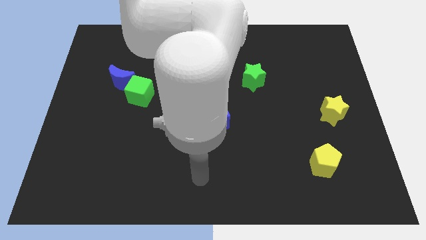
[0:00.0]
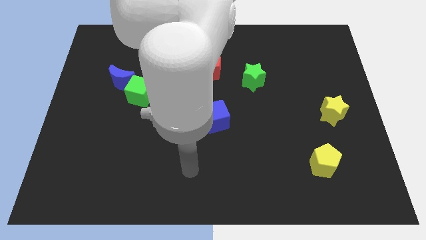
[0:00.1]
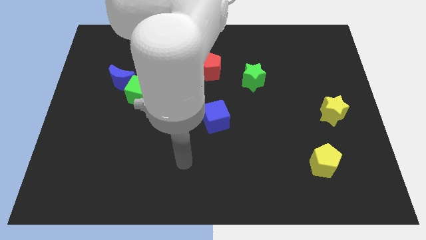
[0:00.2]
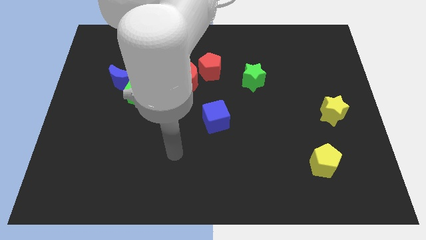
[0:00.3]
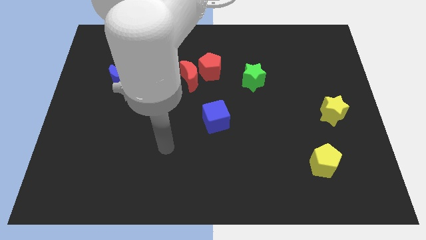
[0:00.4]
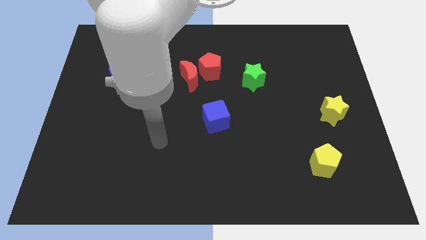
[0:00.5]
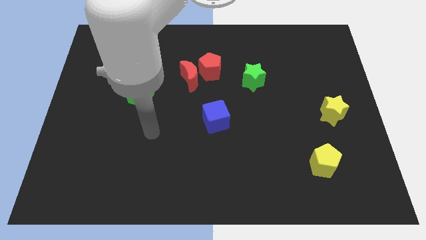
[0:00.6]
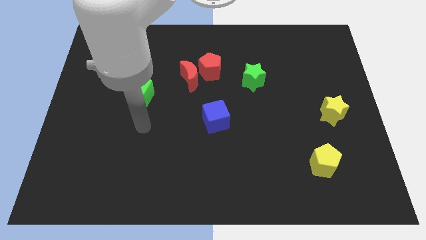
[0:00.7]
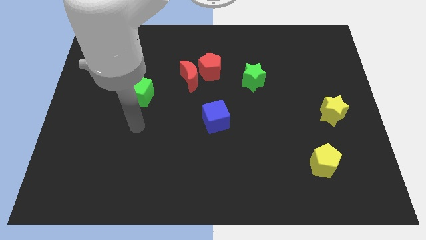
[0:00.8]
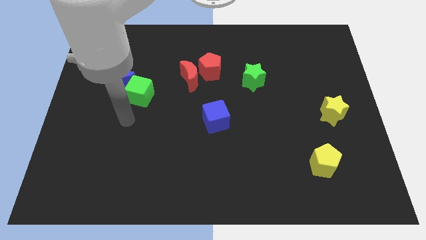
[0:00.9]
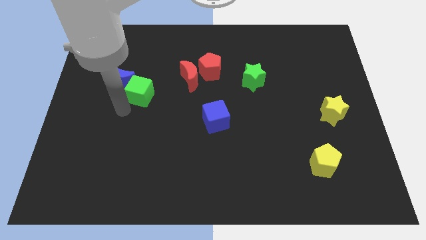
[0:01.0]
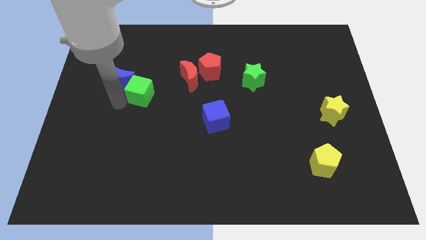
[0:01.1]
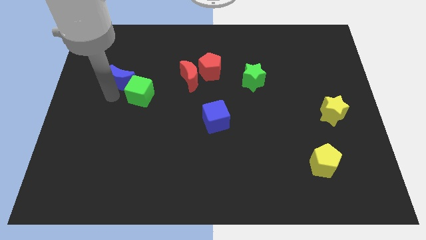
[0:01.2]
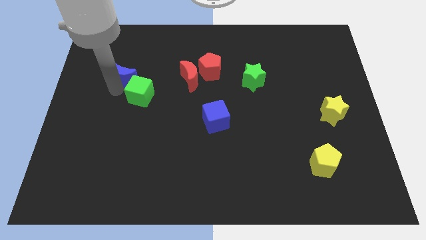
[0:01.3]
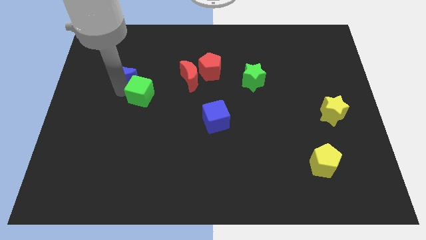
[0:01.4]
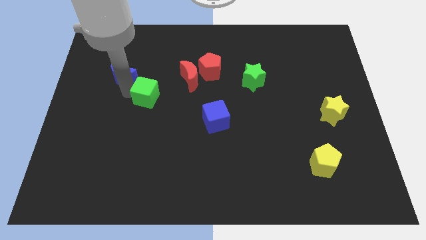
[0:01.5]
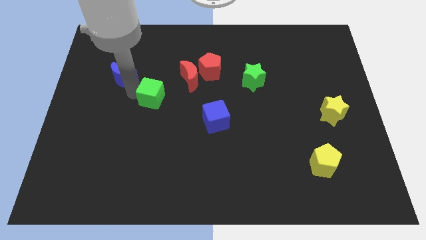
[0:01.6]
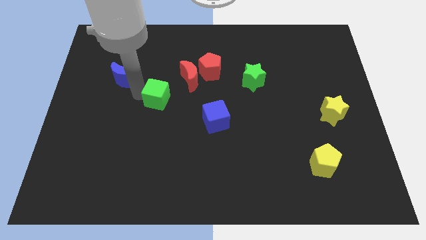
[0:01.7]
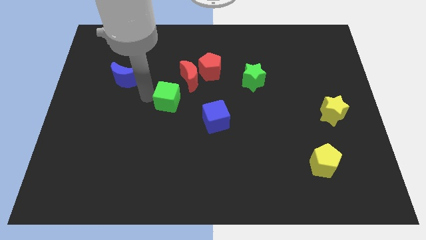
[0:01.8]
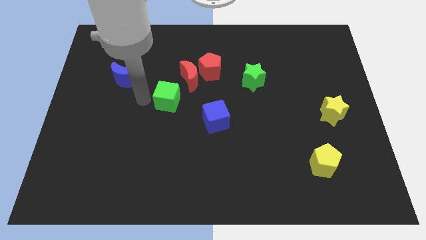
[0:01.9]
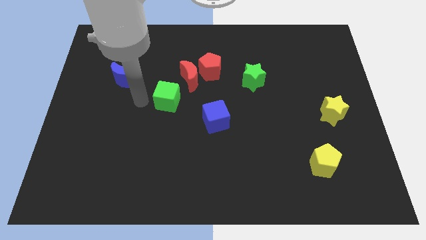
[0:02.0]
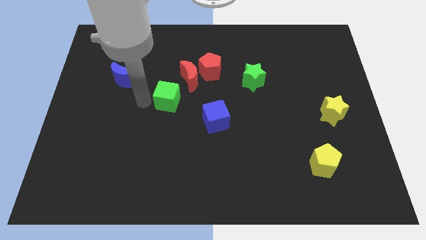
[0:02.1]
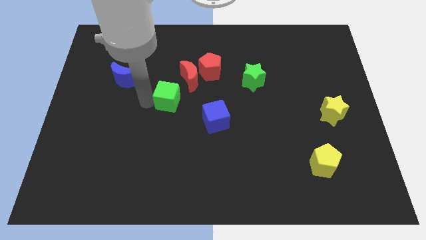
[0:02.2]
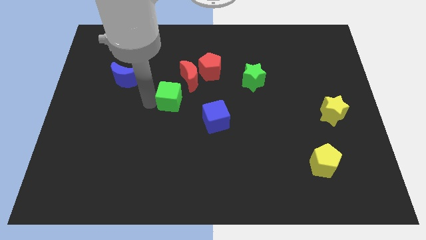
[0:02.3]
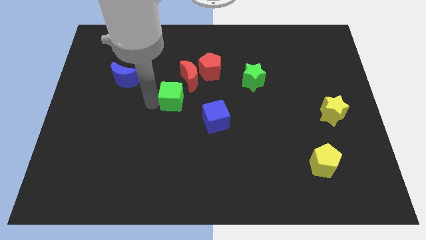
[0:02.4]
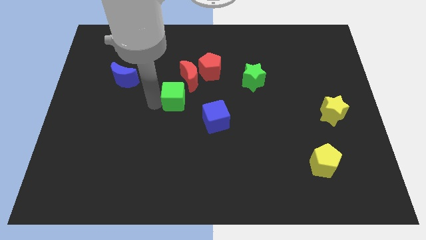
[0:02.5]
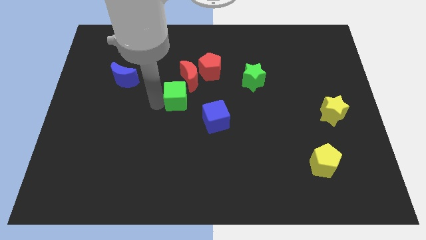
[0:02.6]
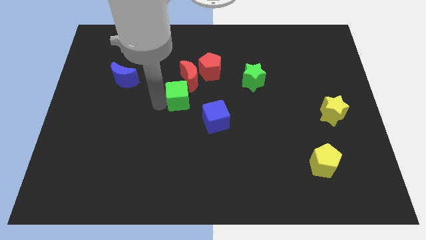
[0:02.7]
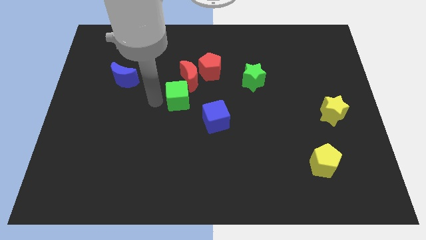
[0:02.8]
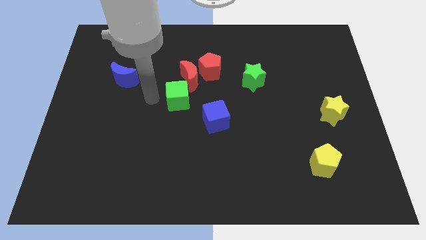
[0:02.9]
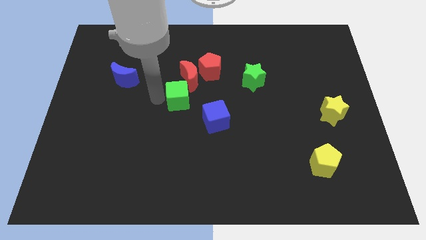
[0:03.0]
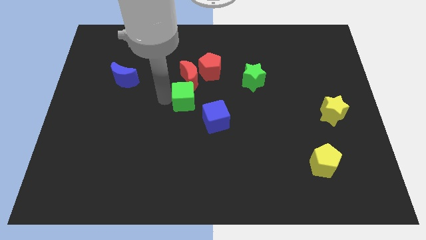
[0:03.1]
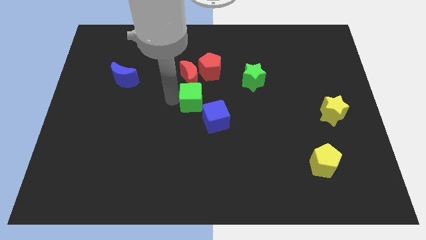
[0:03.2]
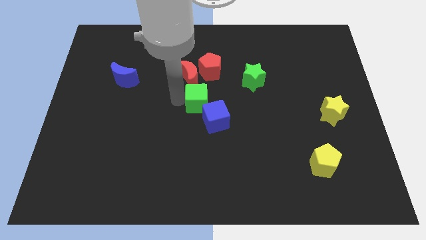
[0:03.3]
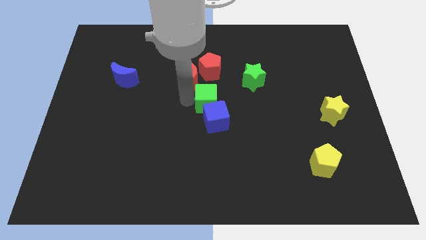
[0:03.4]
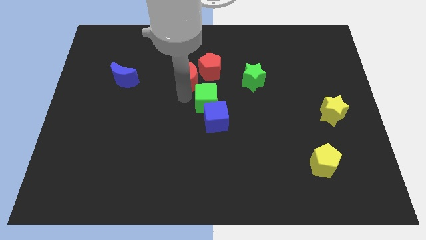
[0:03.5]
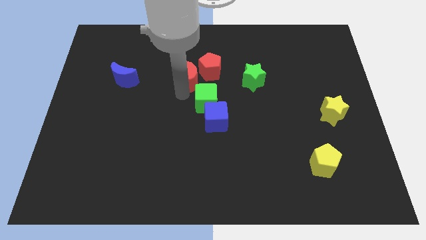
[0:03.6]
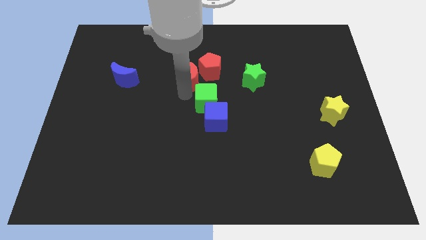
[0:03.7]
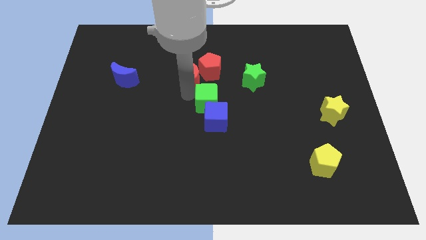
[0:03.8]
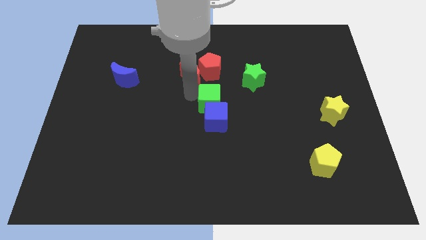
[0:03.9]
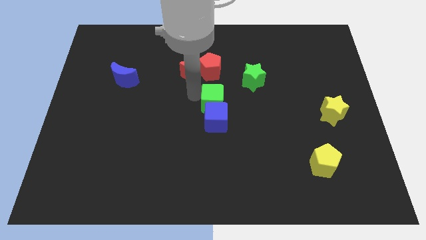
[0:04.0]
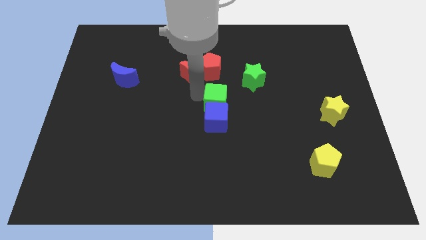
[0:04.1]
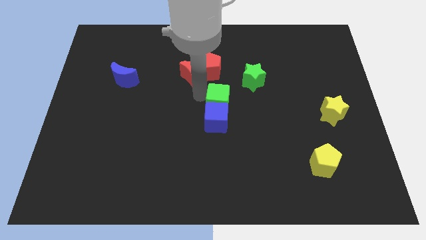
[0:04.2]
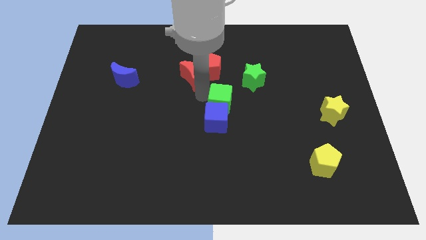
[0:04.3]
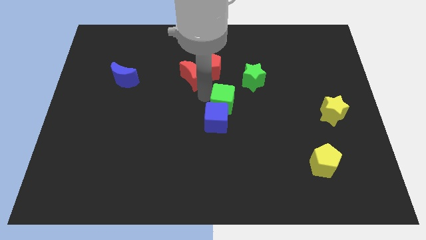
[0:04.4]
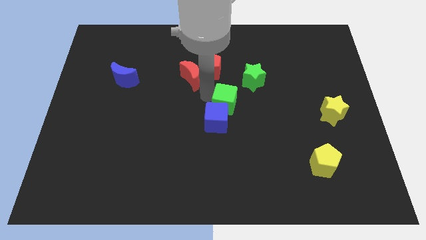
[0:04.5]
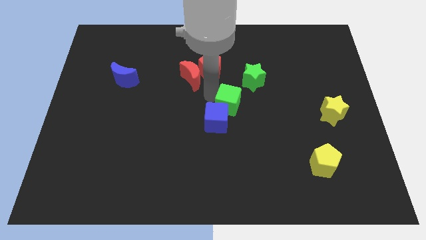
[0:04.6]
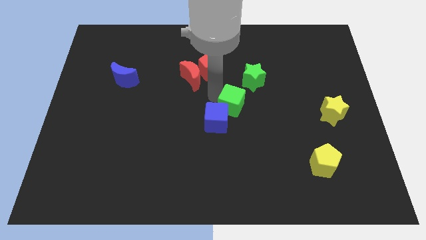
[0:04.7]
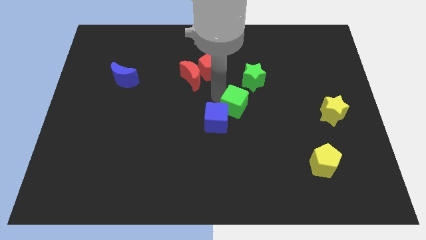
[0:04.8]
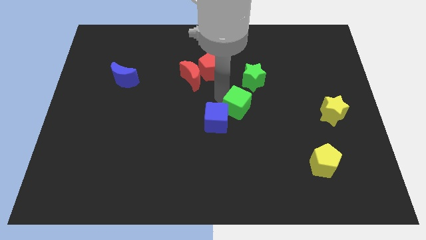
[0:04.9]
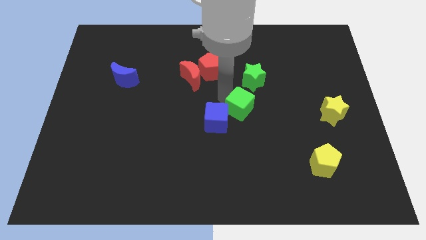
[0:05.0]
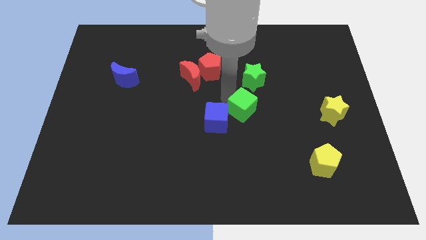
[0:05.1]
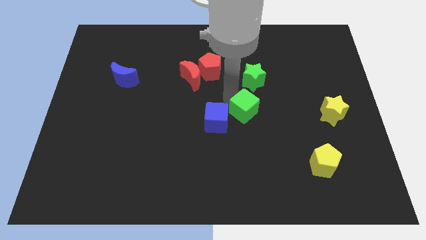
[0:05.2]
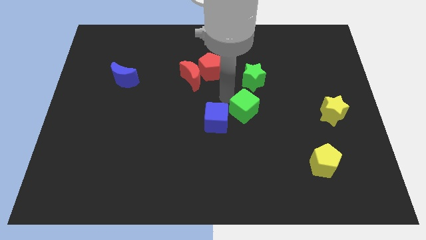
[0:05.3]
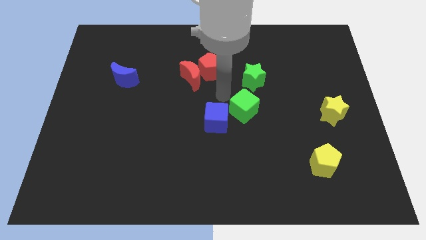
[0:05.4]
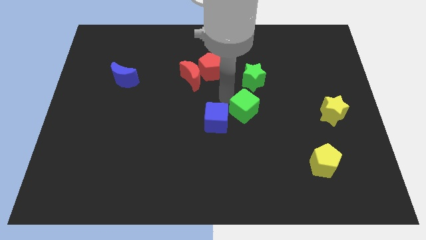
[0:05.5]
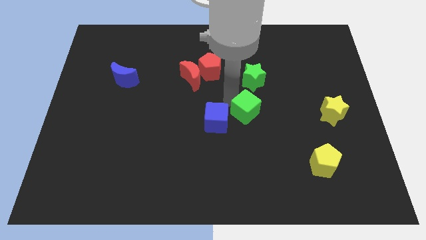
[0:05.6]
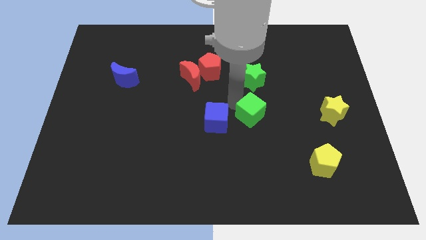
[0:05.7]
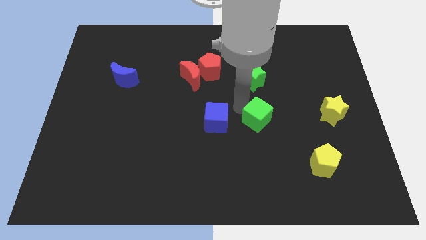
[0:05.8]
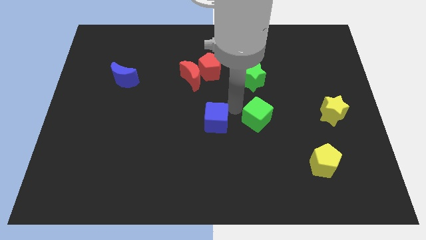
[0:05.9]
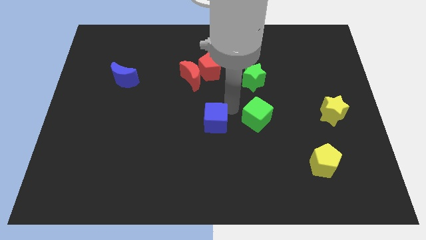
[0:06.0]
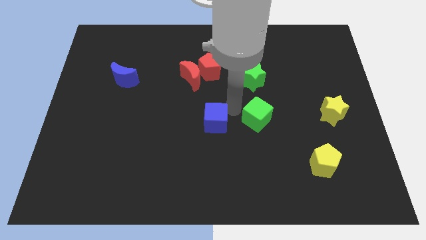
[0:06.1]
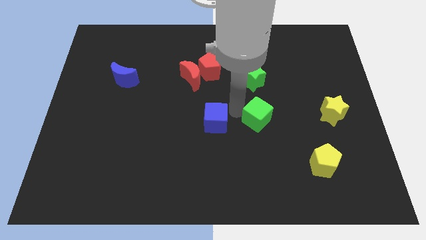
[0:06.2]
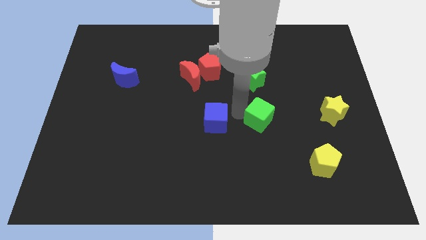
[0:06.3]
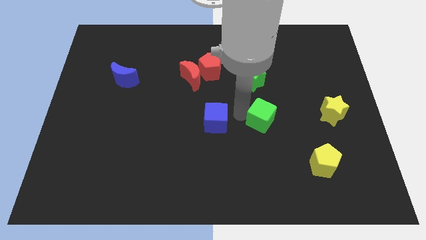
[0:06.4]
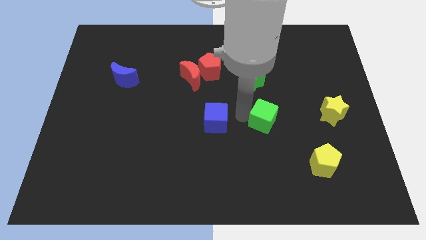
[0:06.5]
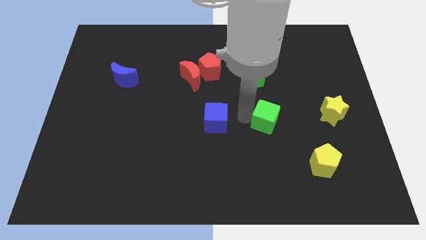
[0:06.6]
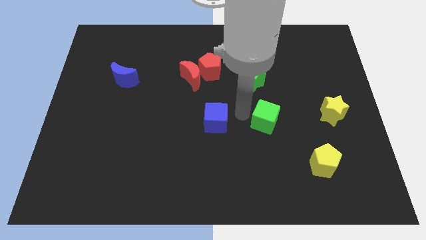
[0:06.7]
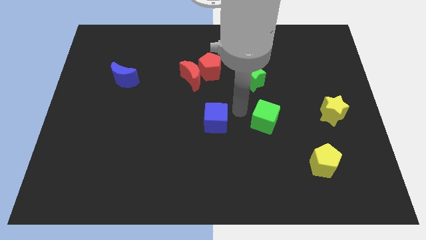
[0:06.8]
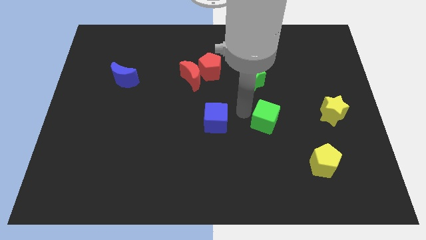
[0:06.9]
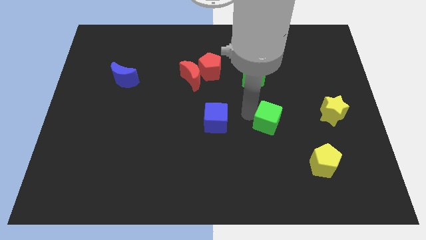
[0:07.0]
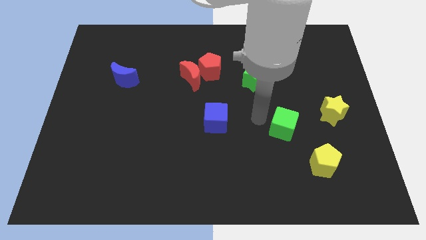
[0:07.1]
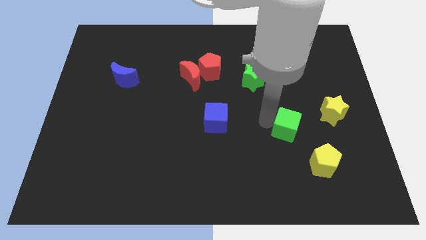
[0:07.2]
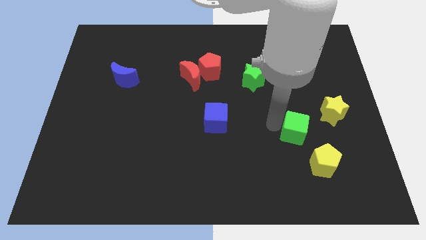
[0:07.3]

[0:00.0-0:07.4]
move the green cube to the bottom left of the yellow star
